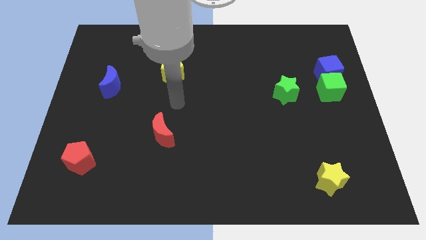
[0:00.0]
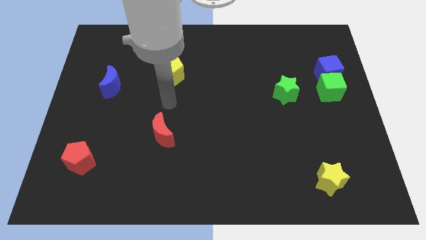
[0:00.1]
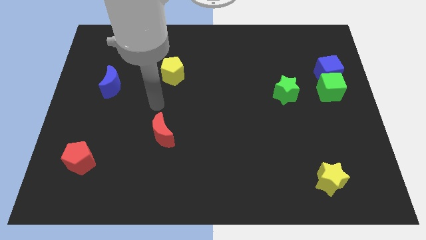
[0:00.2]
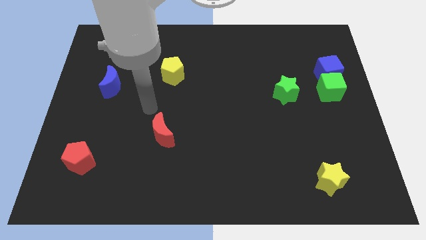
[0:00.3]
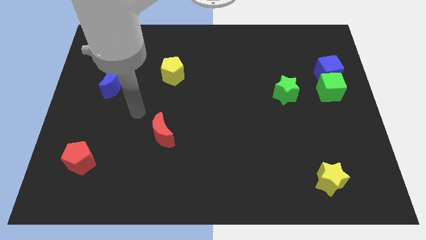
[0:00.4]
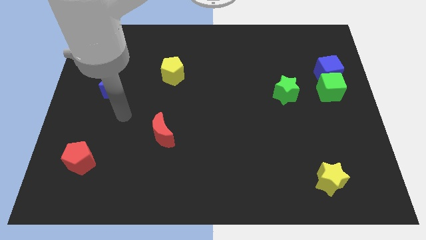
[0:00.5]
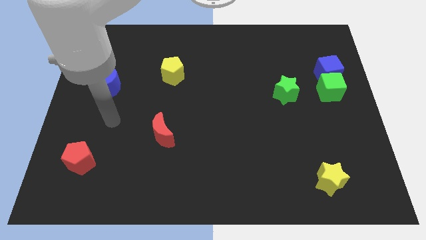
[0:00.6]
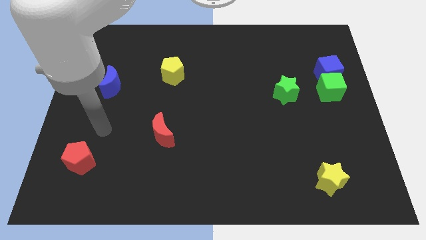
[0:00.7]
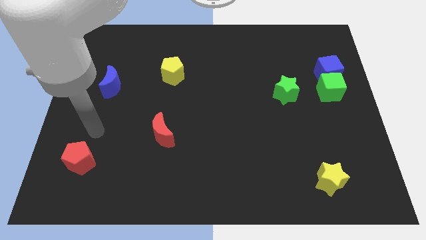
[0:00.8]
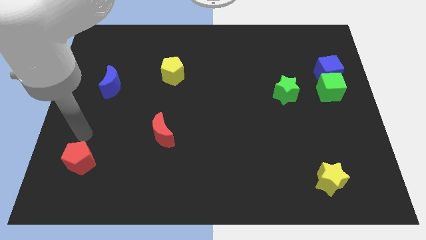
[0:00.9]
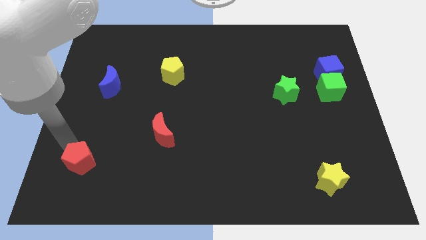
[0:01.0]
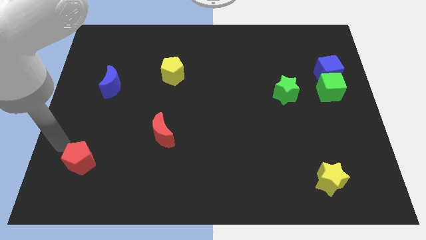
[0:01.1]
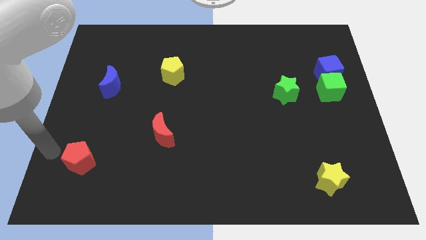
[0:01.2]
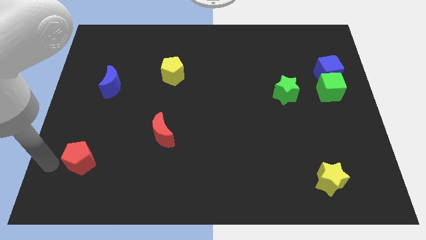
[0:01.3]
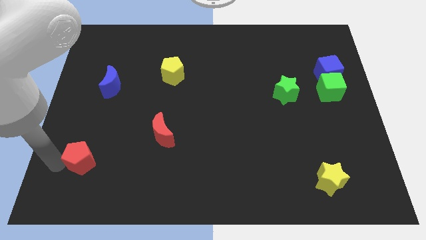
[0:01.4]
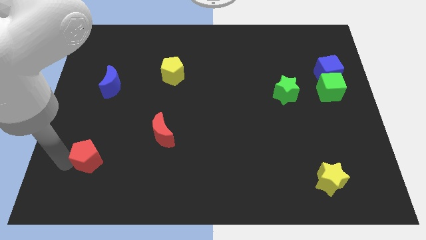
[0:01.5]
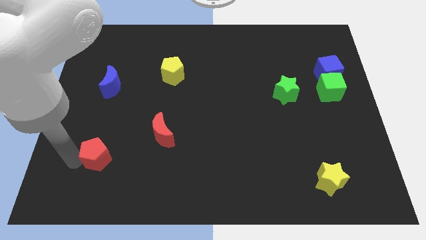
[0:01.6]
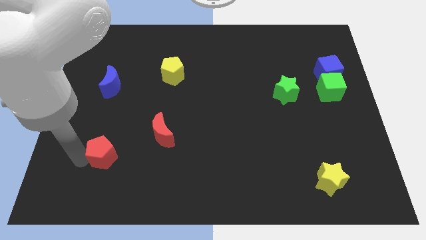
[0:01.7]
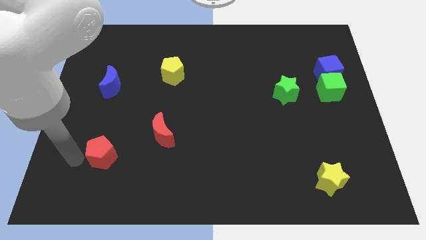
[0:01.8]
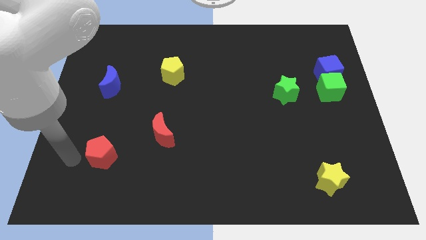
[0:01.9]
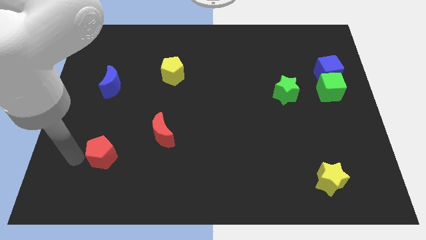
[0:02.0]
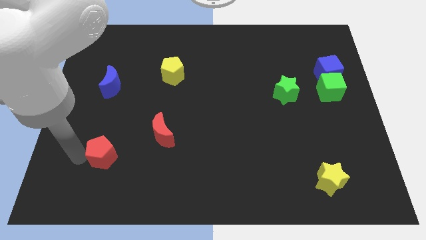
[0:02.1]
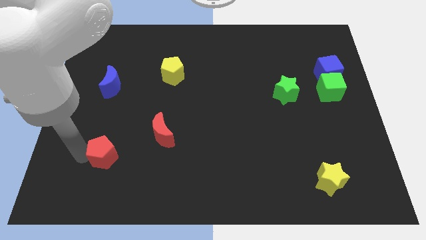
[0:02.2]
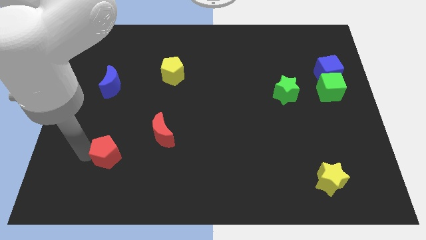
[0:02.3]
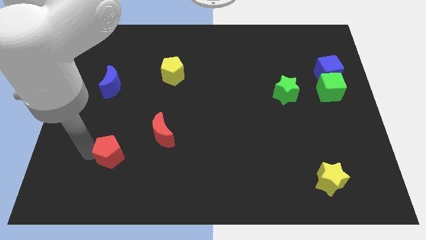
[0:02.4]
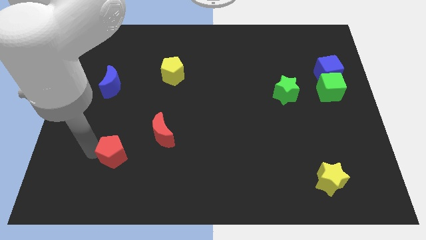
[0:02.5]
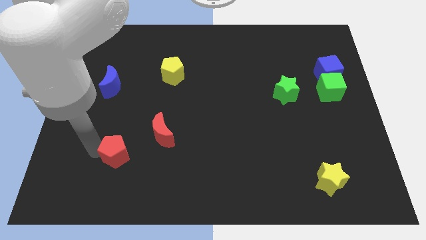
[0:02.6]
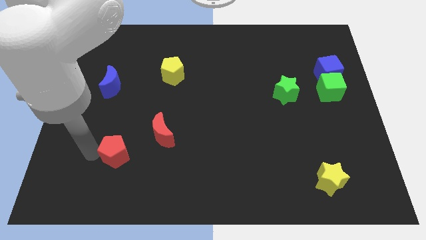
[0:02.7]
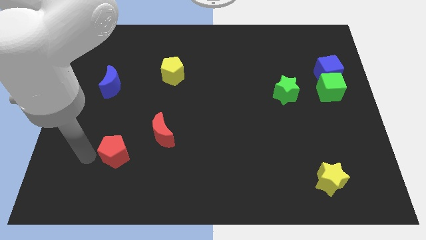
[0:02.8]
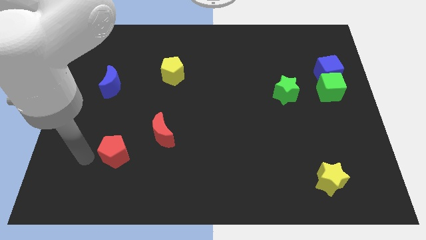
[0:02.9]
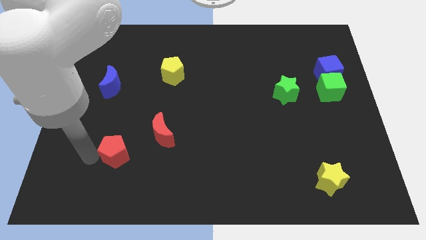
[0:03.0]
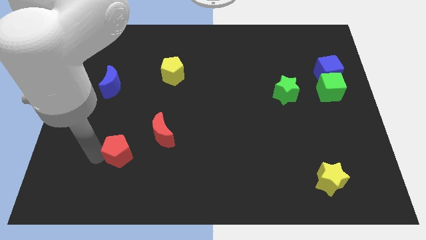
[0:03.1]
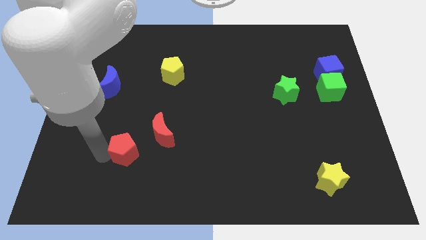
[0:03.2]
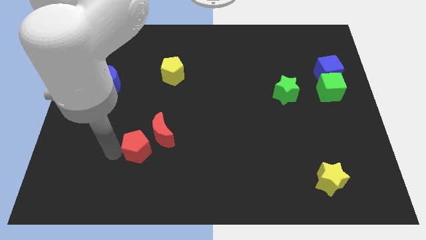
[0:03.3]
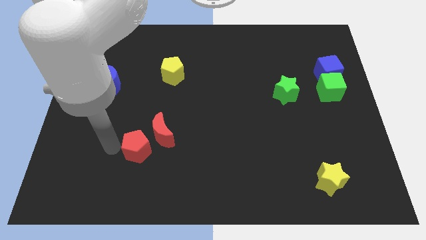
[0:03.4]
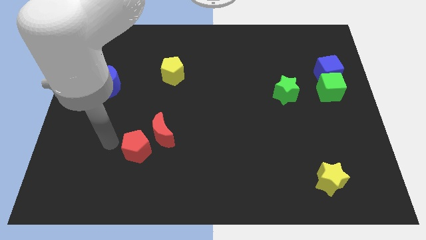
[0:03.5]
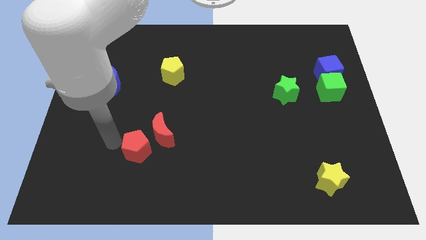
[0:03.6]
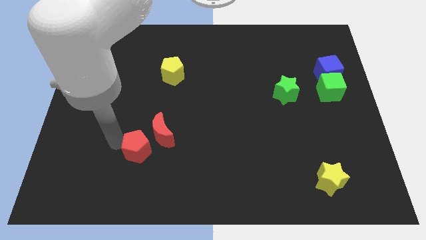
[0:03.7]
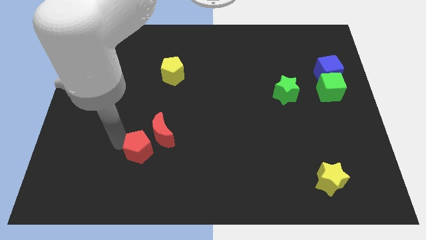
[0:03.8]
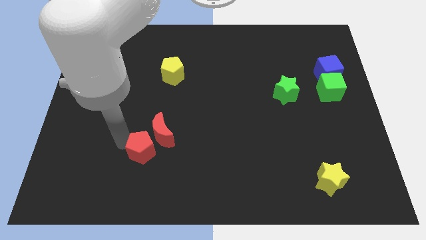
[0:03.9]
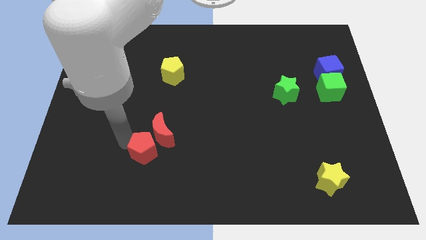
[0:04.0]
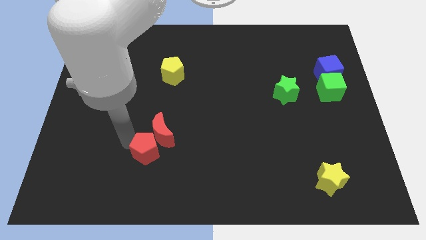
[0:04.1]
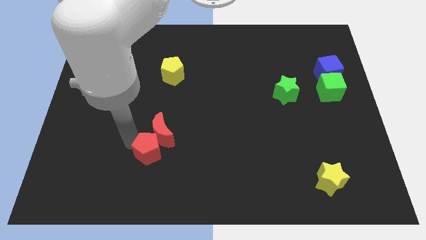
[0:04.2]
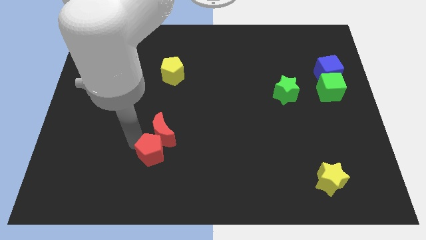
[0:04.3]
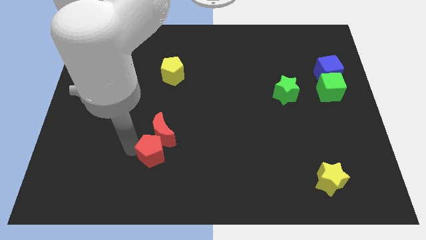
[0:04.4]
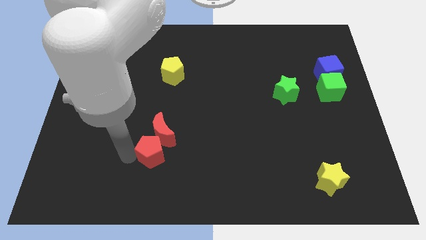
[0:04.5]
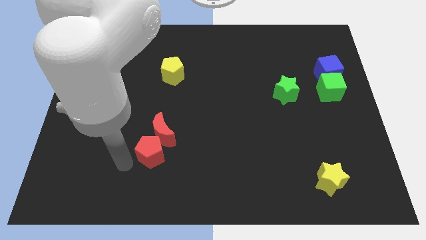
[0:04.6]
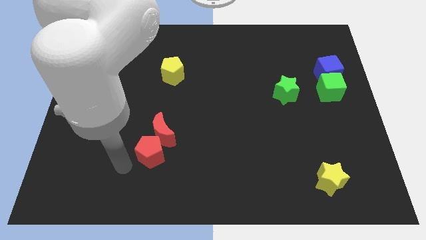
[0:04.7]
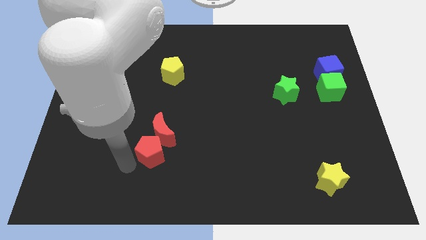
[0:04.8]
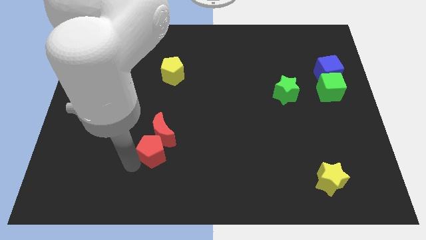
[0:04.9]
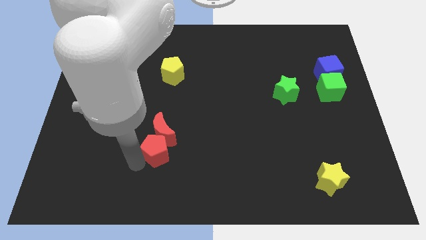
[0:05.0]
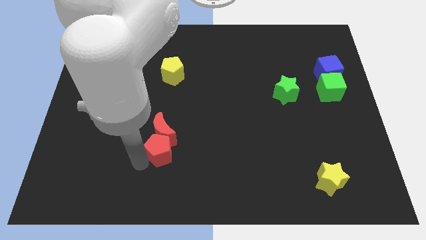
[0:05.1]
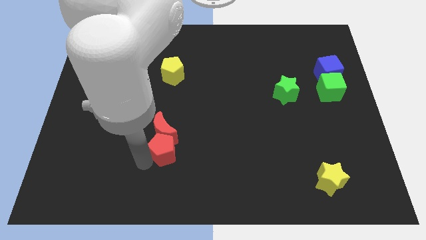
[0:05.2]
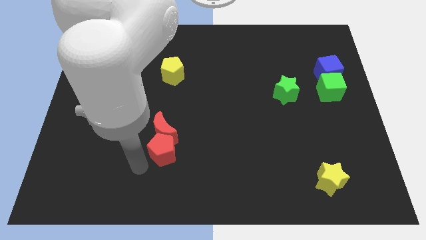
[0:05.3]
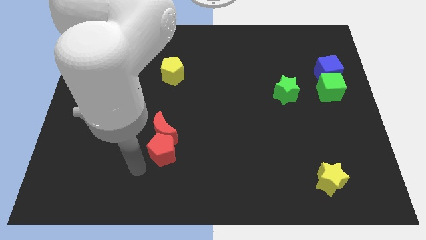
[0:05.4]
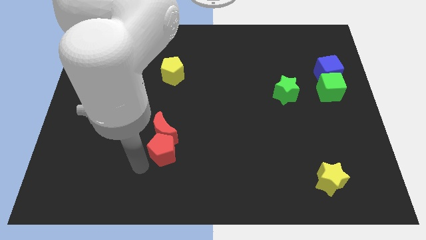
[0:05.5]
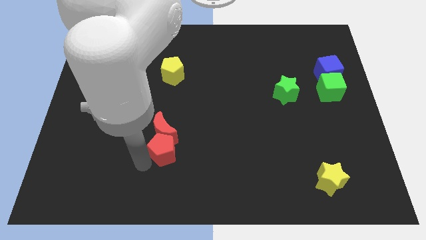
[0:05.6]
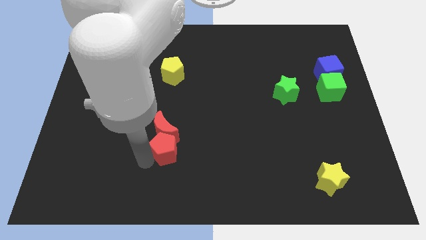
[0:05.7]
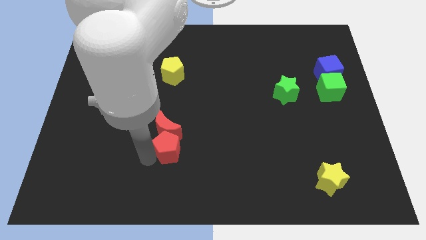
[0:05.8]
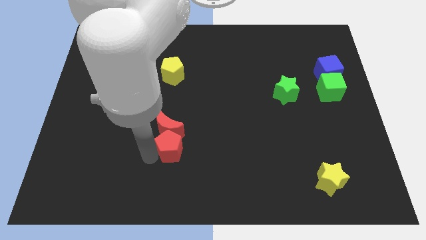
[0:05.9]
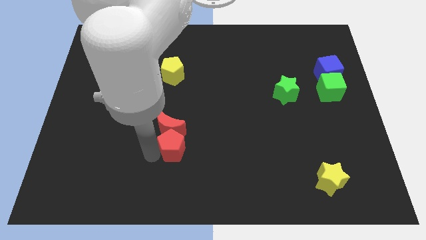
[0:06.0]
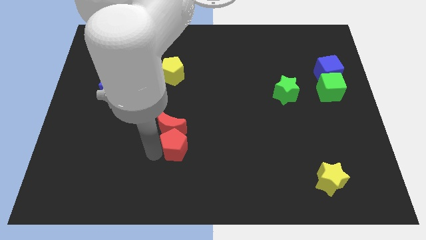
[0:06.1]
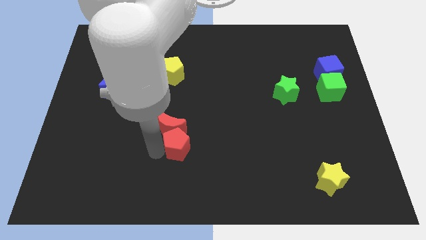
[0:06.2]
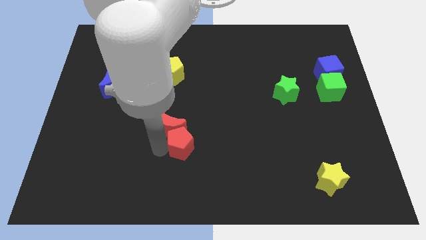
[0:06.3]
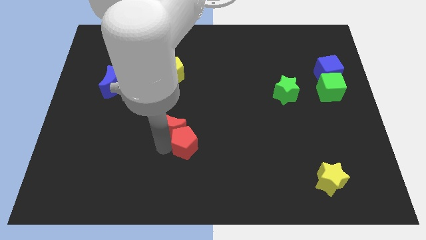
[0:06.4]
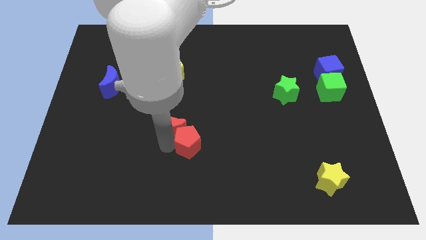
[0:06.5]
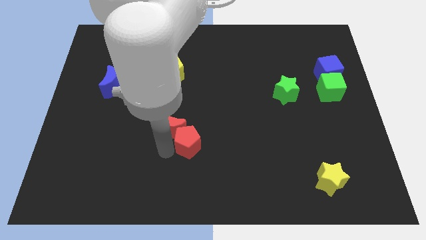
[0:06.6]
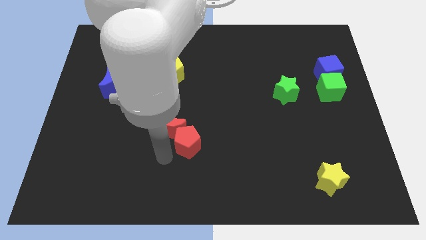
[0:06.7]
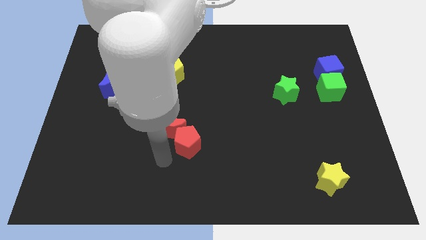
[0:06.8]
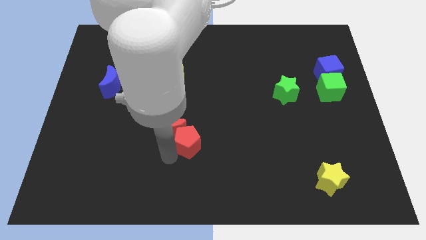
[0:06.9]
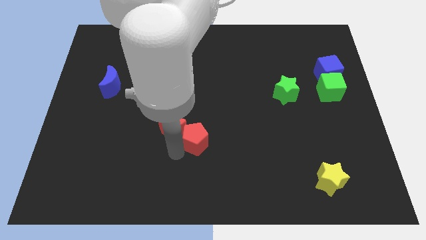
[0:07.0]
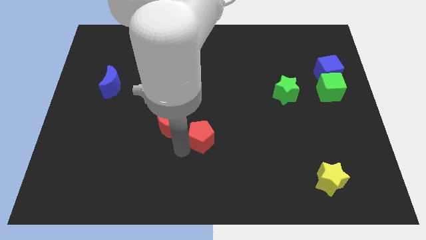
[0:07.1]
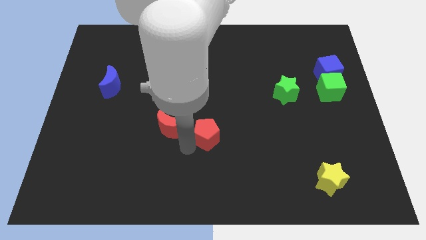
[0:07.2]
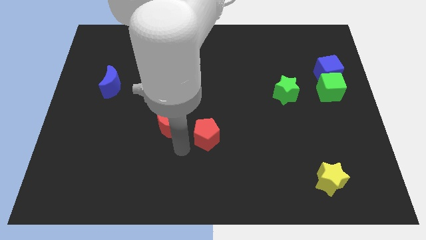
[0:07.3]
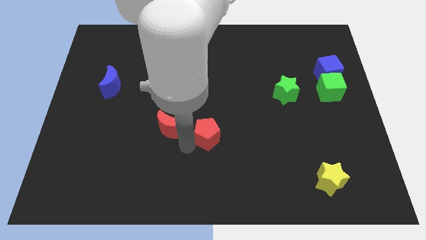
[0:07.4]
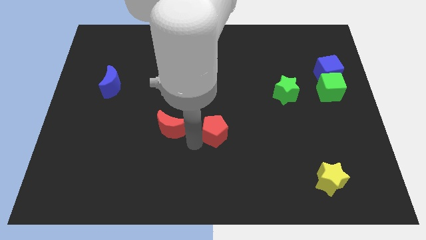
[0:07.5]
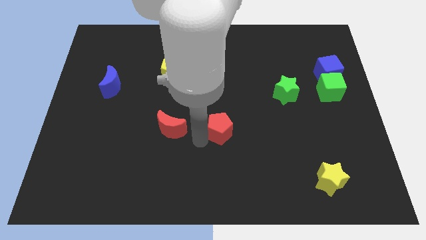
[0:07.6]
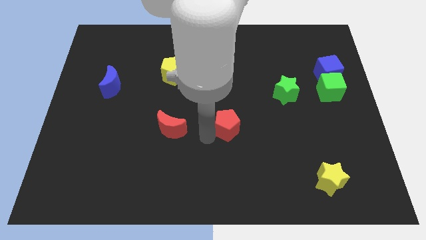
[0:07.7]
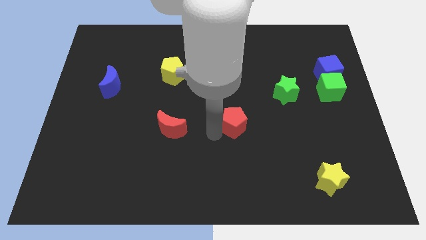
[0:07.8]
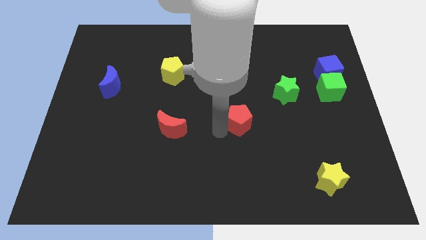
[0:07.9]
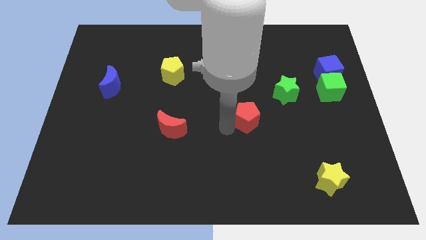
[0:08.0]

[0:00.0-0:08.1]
put the red pentagon diagonally down and to the left of the green star
